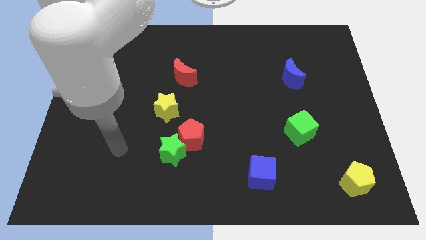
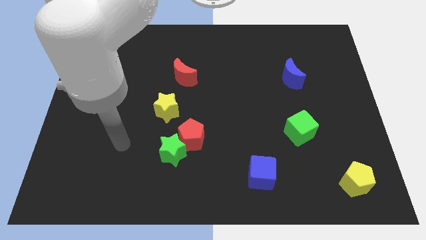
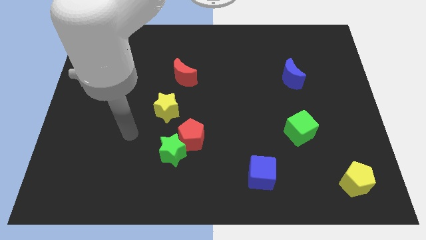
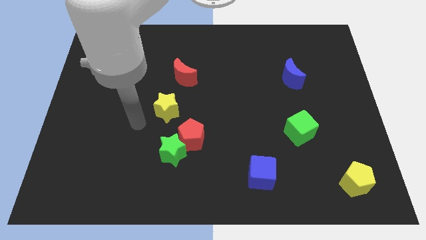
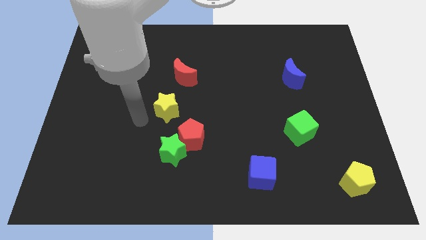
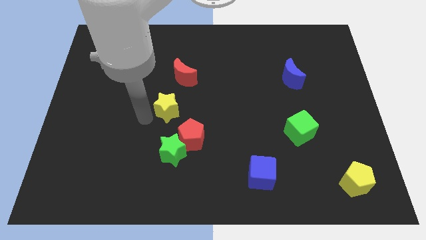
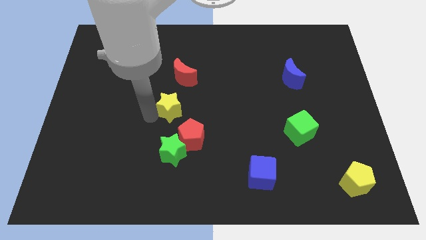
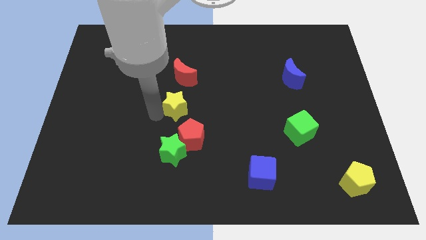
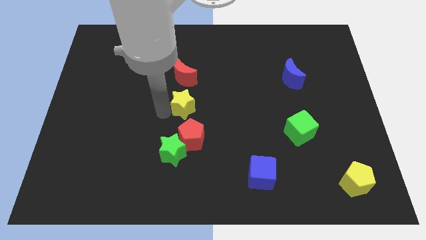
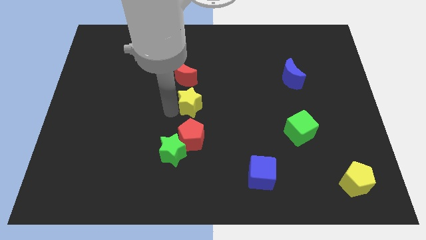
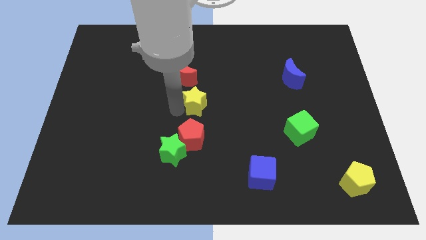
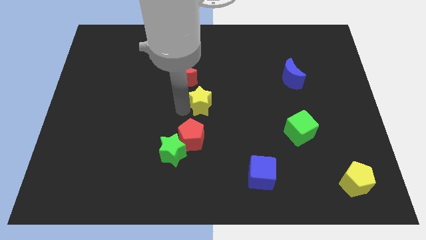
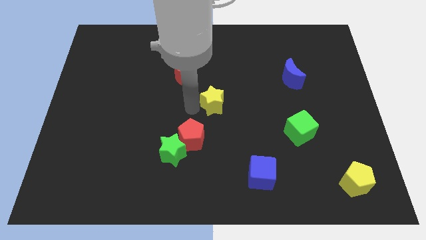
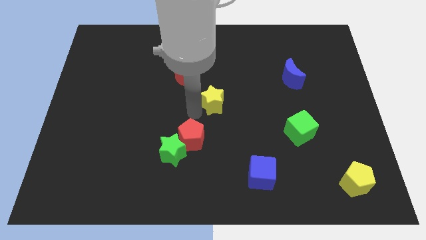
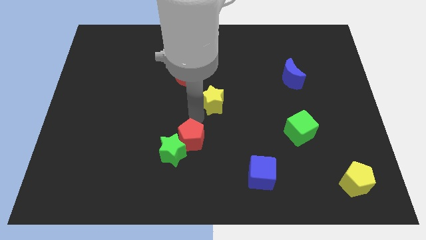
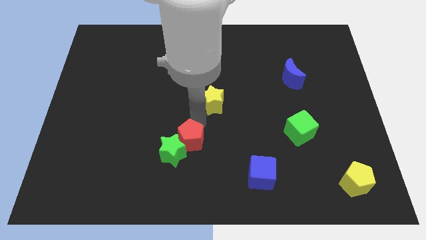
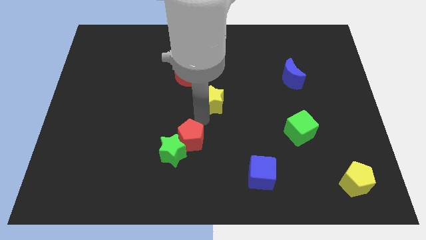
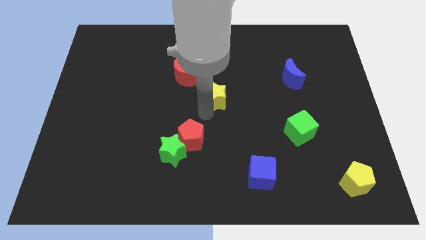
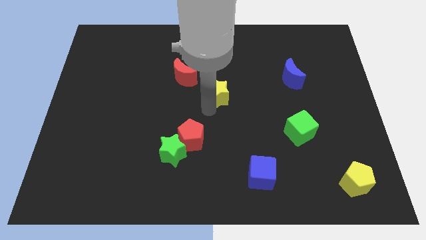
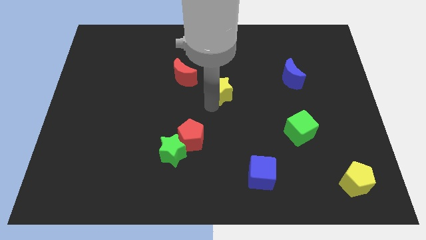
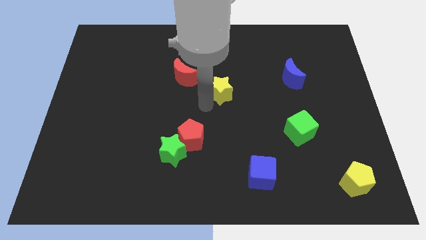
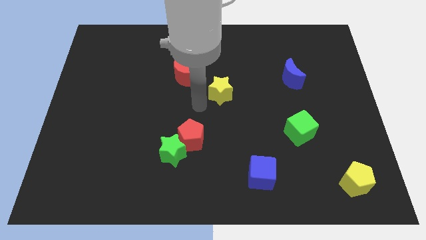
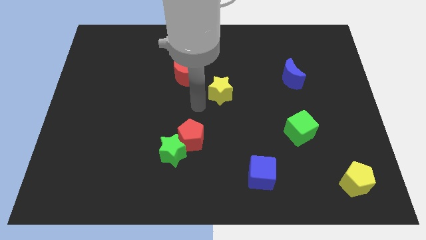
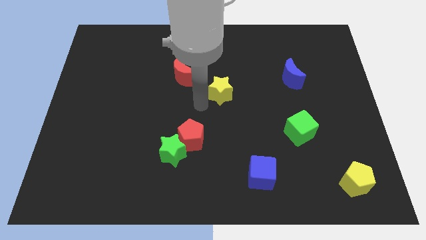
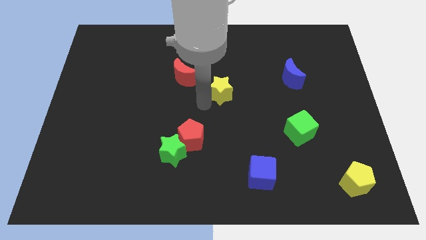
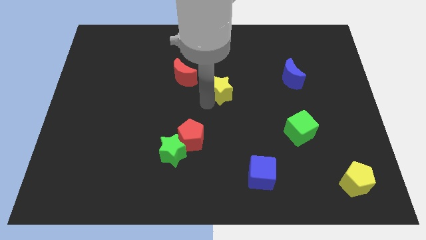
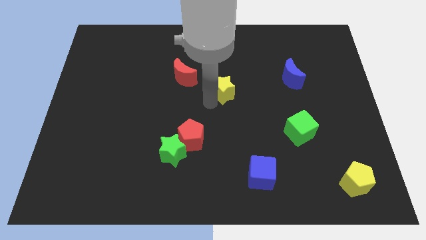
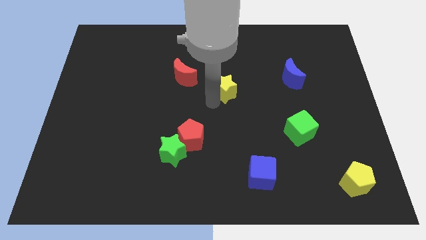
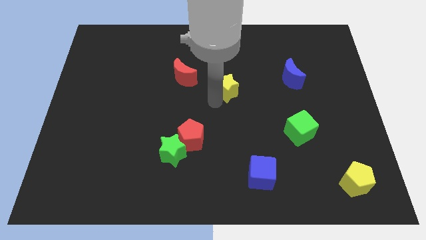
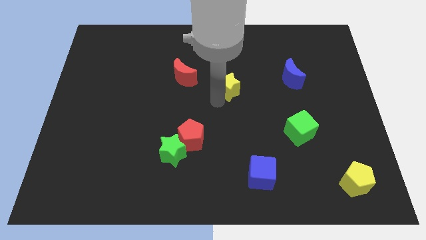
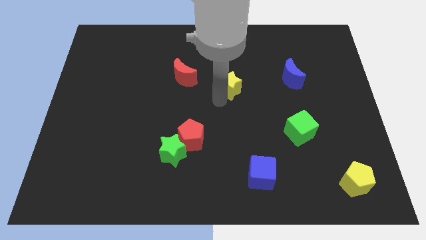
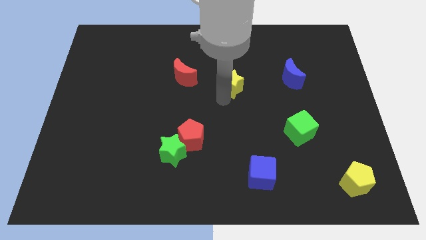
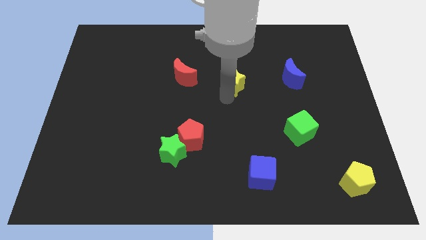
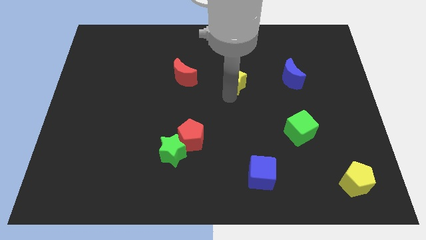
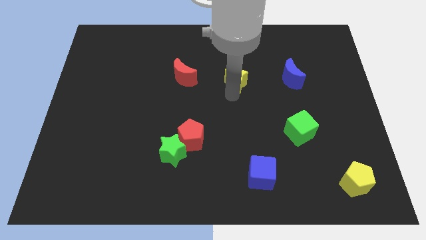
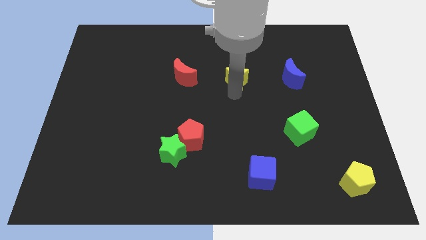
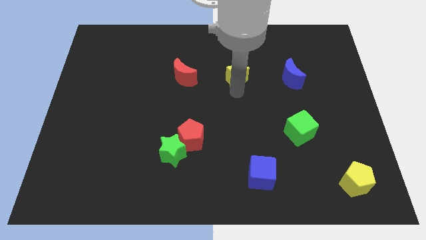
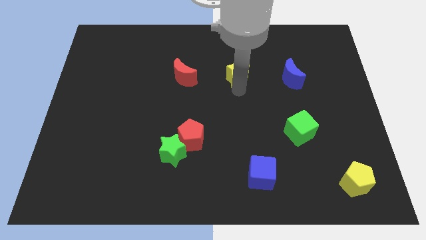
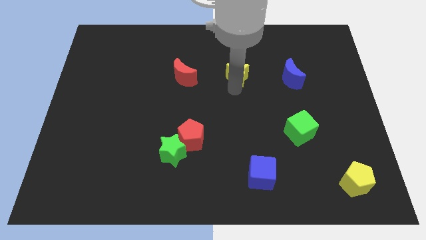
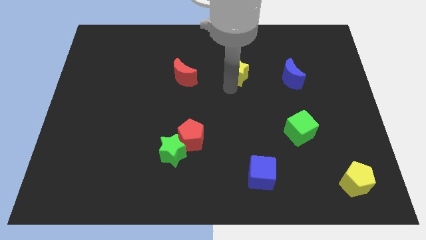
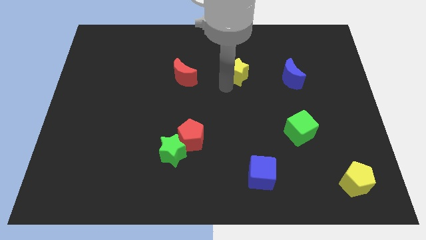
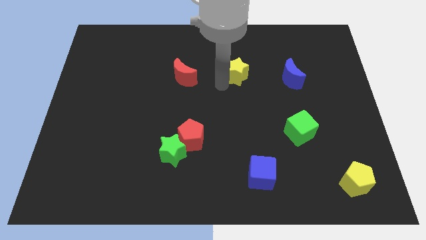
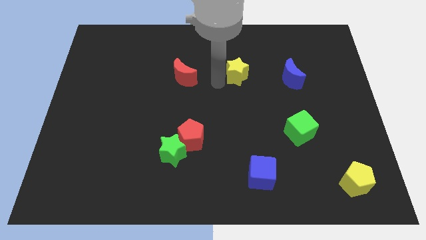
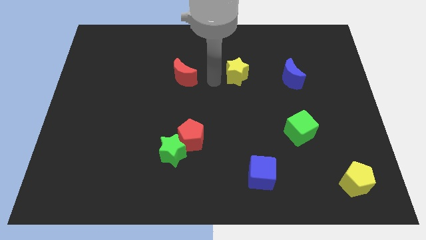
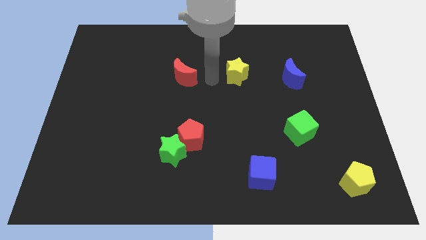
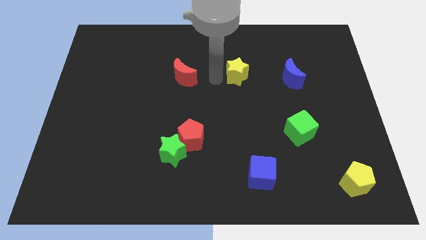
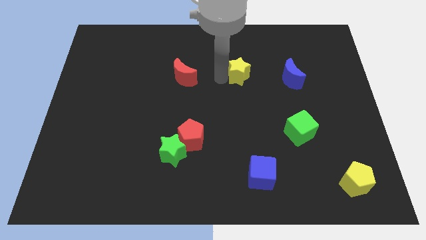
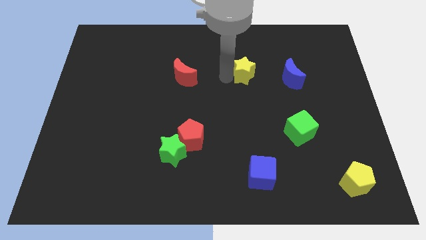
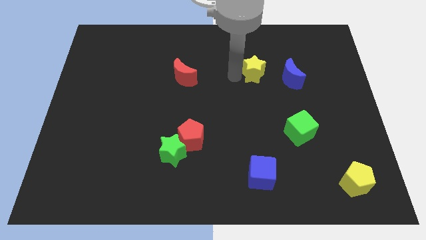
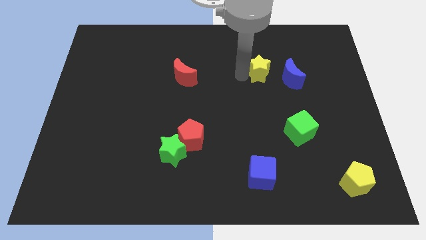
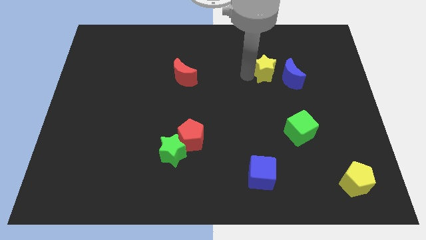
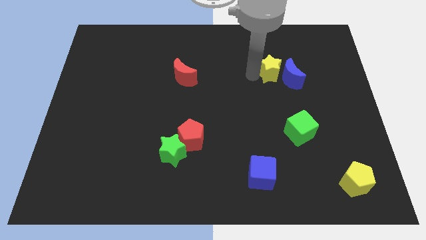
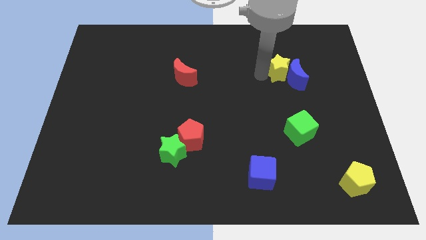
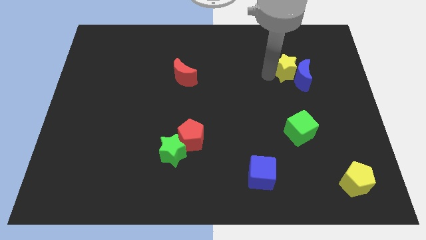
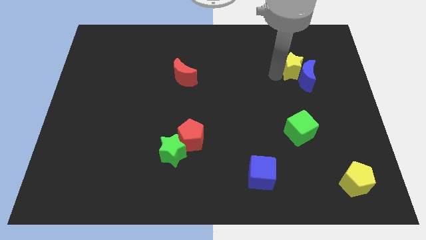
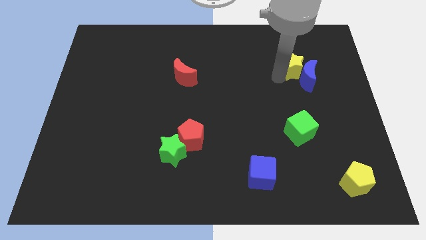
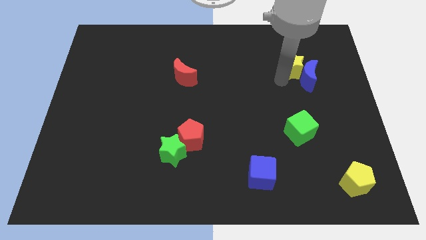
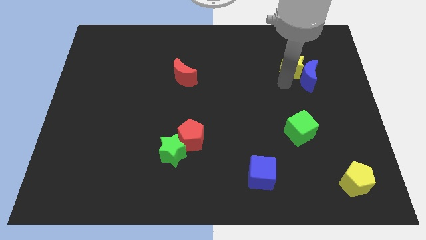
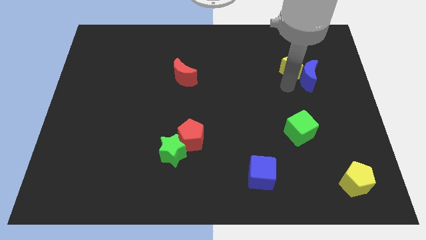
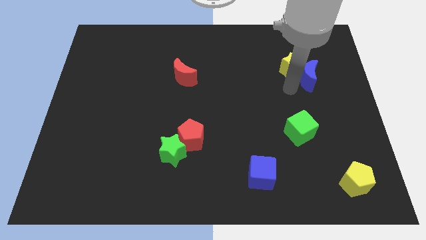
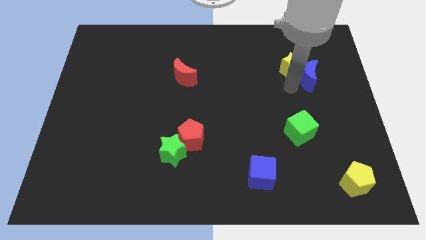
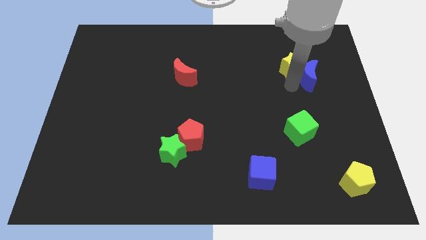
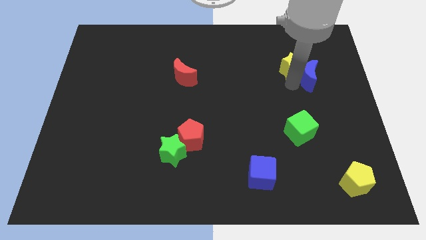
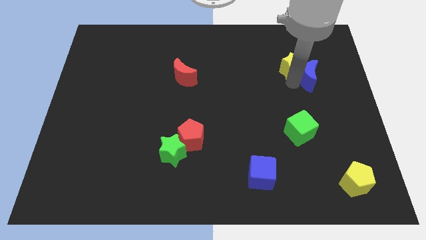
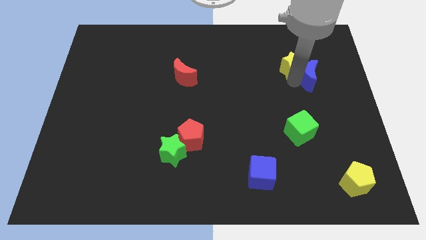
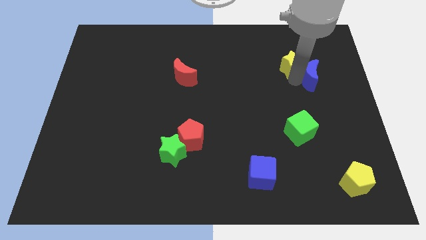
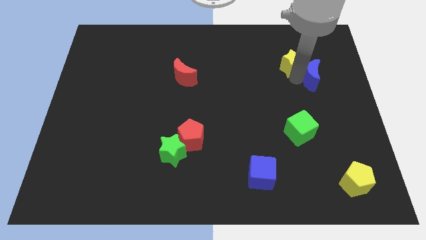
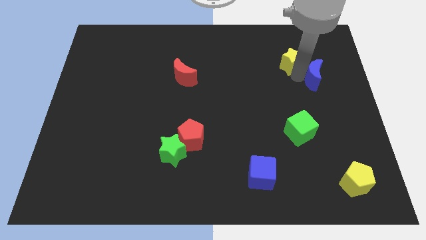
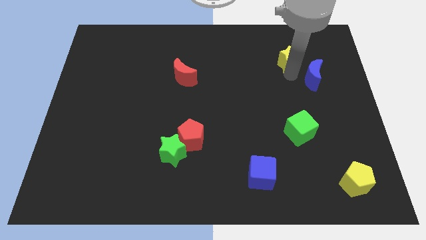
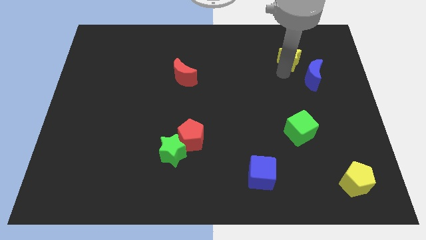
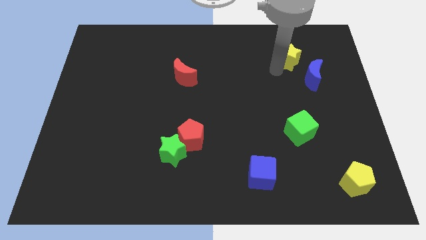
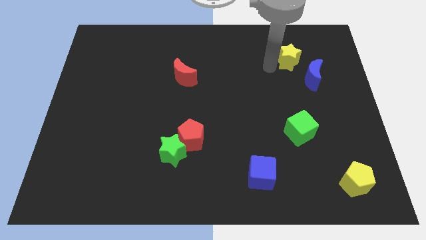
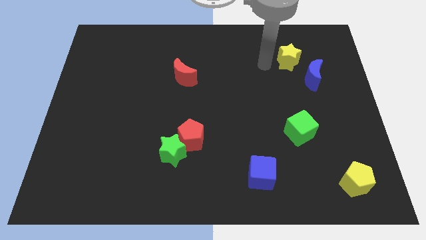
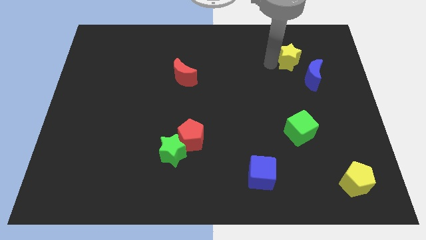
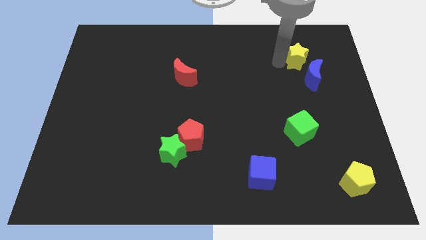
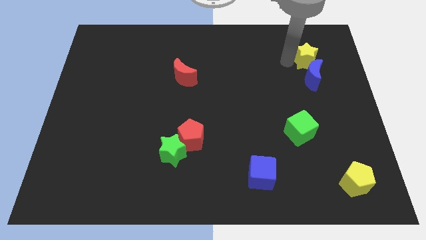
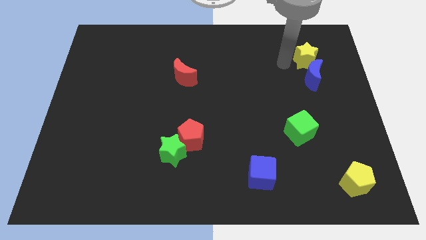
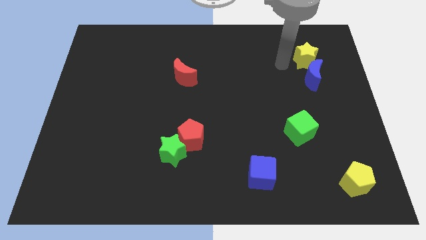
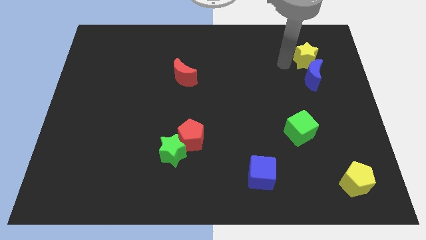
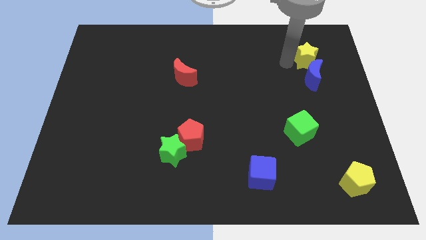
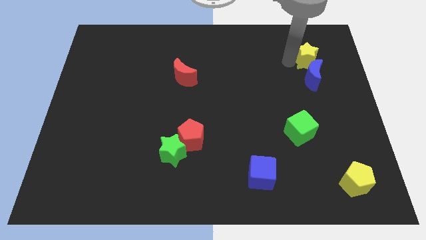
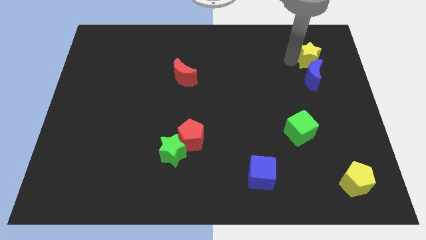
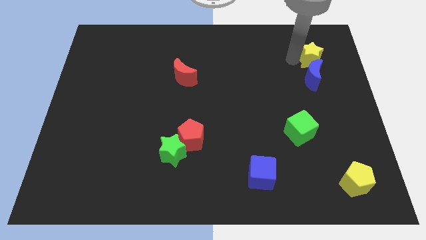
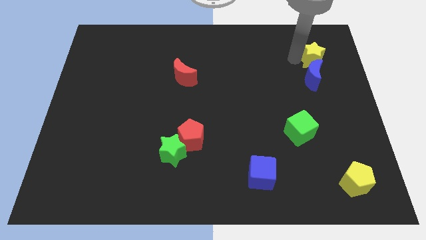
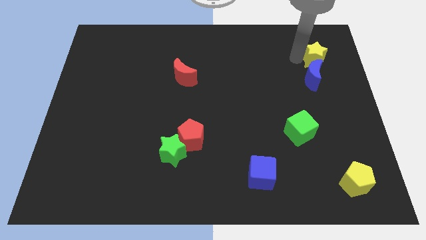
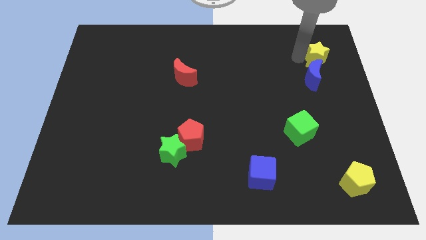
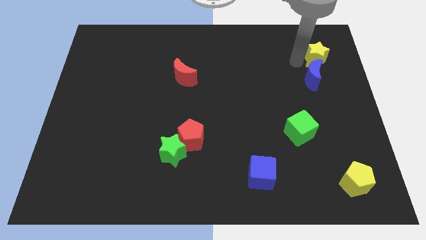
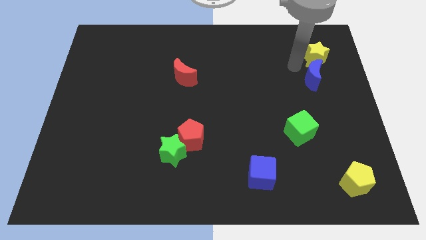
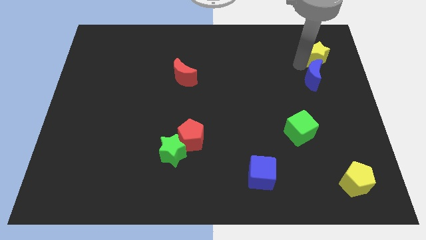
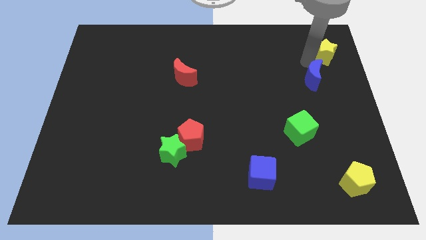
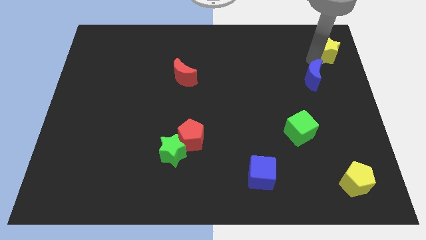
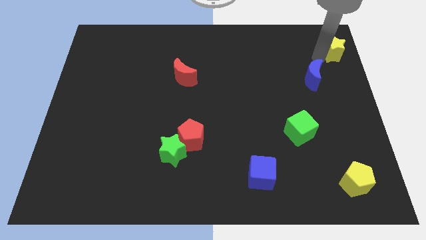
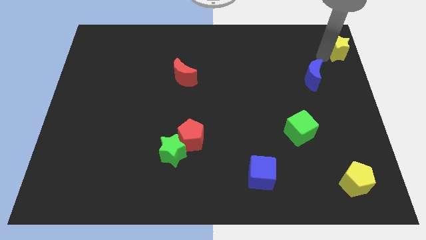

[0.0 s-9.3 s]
put the yellow star to the top right of the board
